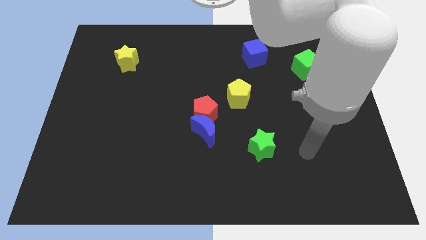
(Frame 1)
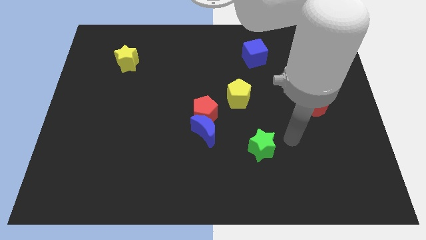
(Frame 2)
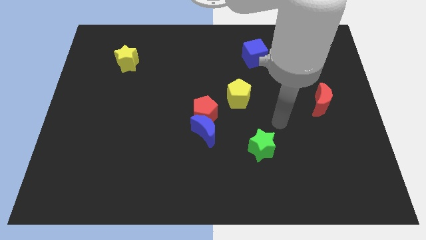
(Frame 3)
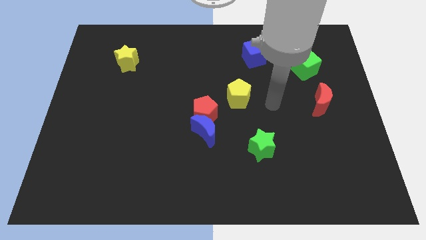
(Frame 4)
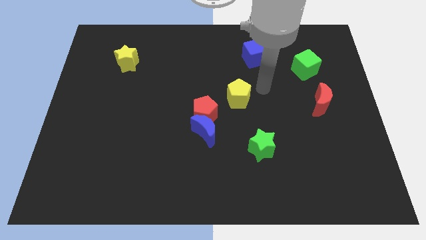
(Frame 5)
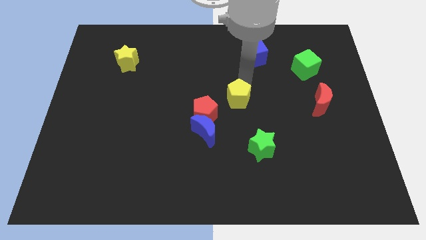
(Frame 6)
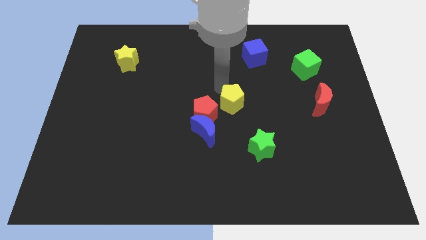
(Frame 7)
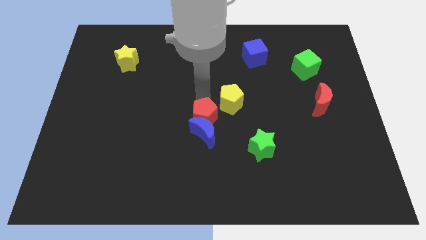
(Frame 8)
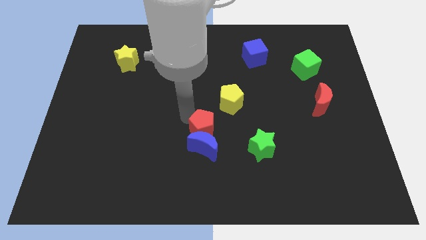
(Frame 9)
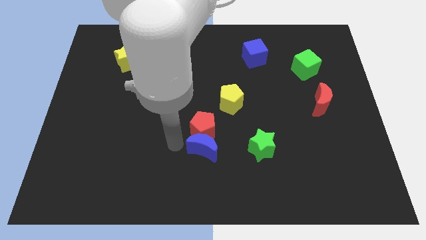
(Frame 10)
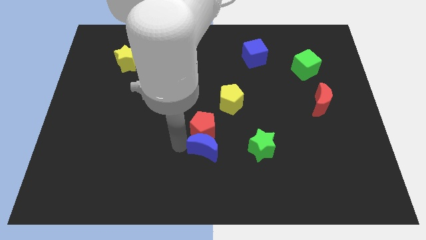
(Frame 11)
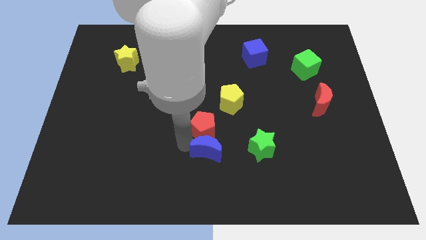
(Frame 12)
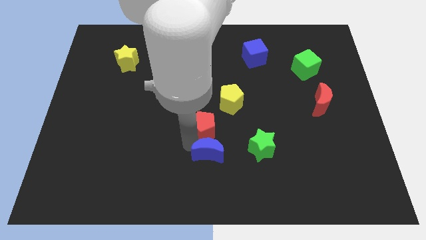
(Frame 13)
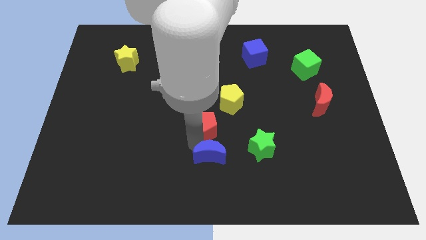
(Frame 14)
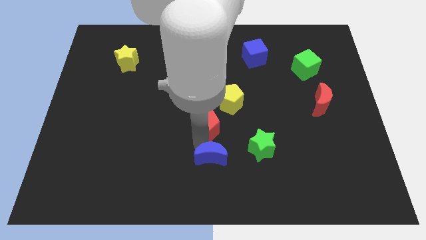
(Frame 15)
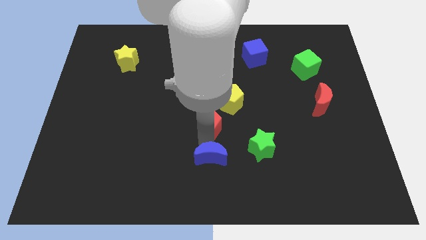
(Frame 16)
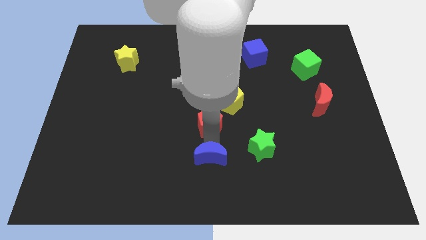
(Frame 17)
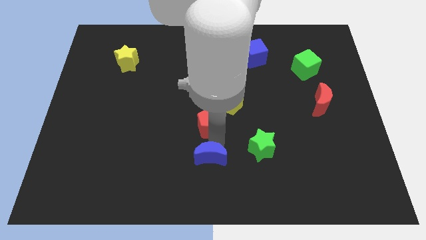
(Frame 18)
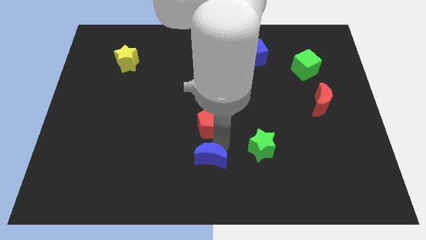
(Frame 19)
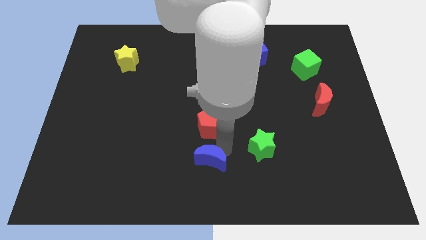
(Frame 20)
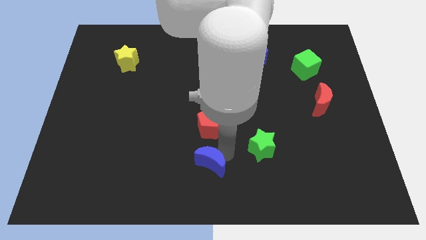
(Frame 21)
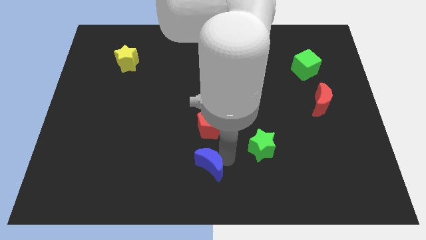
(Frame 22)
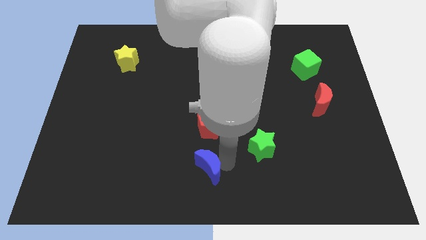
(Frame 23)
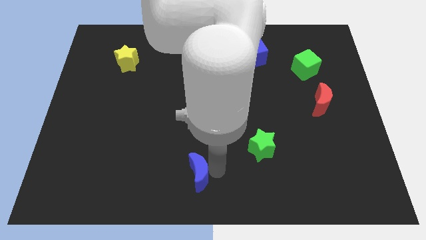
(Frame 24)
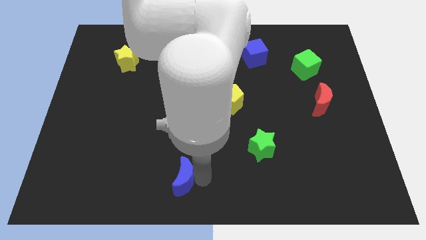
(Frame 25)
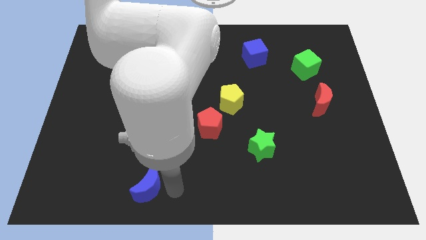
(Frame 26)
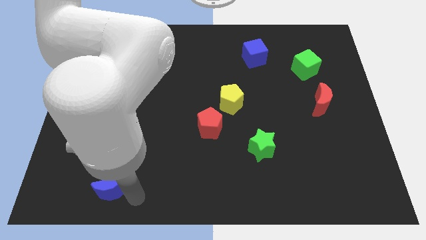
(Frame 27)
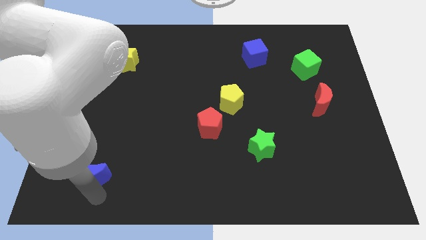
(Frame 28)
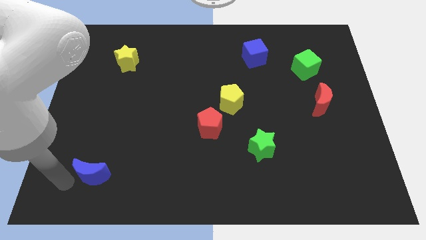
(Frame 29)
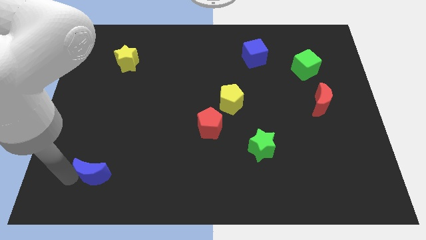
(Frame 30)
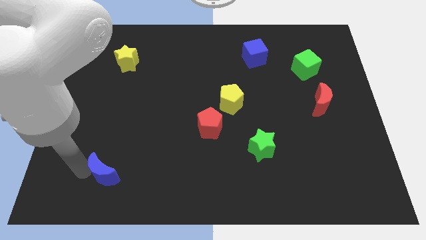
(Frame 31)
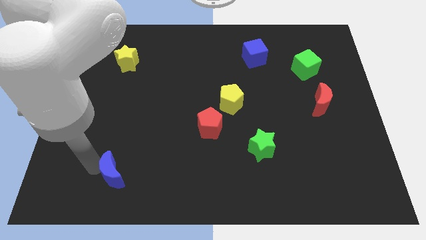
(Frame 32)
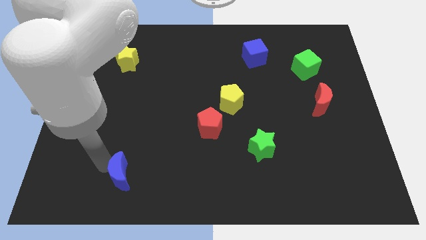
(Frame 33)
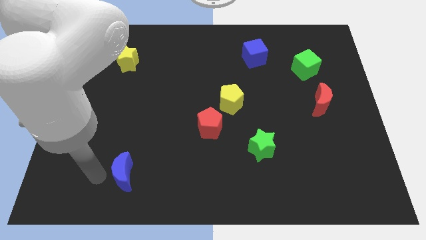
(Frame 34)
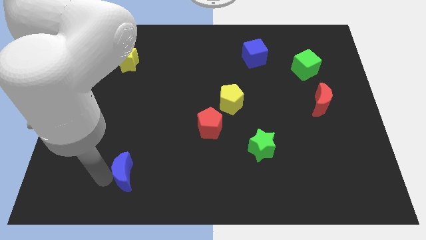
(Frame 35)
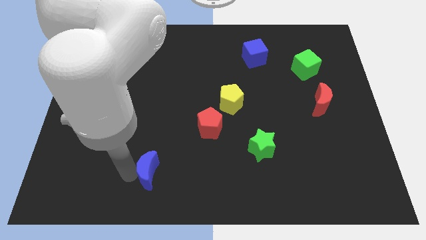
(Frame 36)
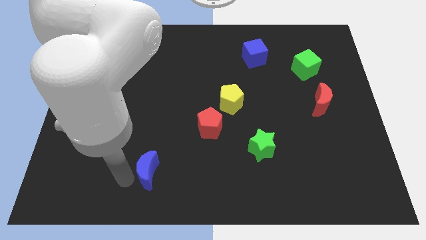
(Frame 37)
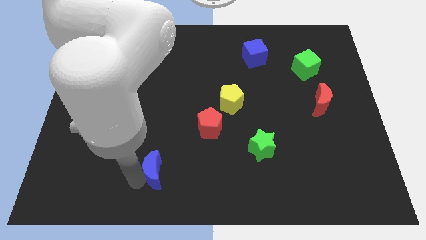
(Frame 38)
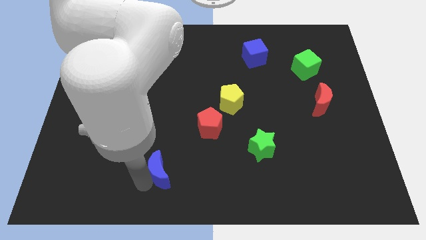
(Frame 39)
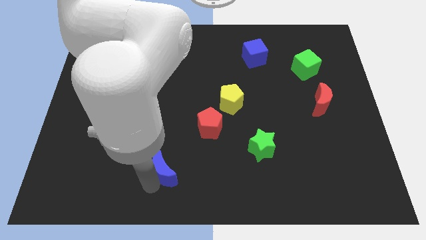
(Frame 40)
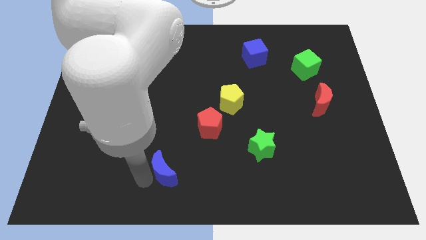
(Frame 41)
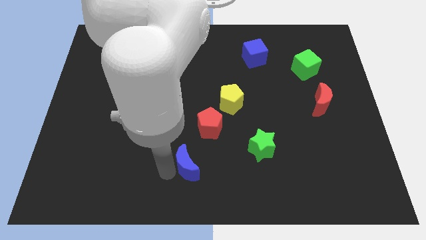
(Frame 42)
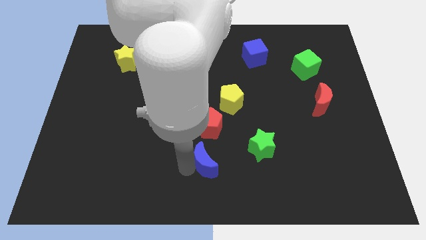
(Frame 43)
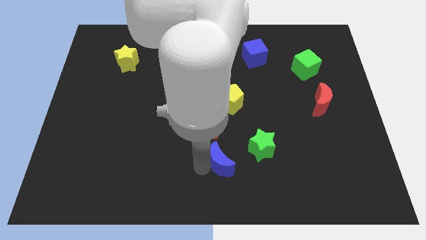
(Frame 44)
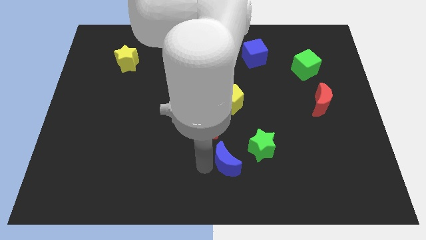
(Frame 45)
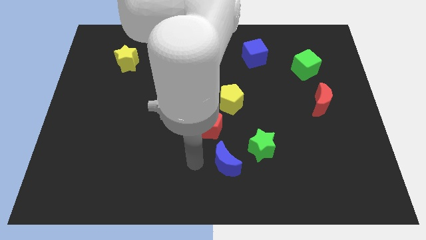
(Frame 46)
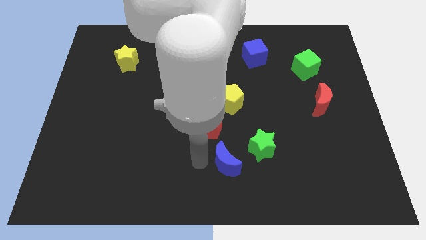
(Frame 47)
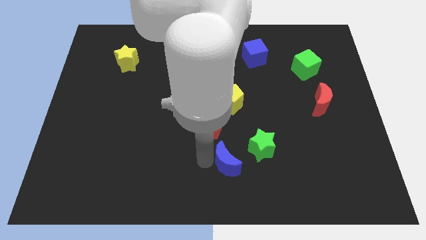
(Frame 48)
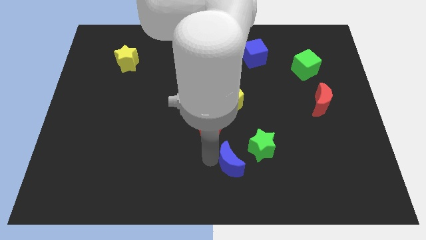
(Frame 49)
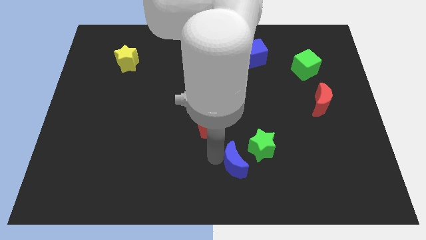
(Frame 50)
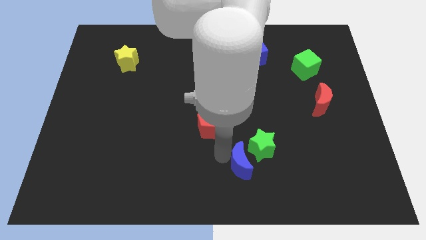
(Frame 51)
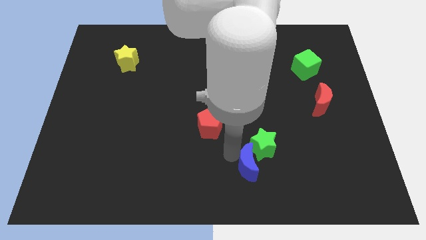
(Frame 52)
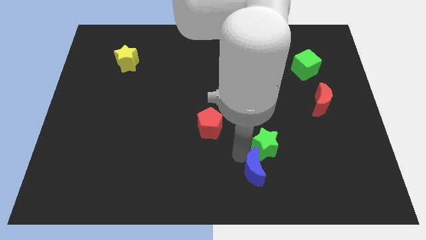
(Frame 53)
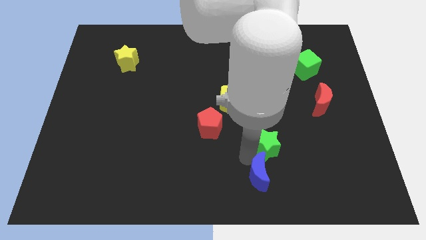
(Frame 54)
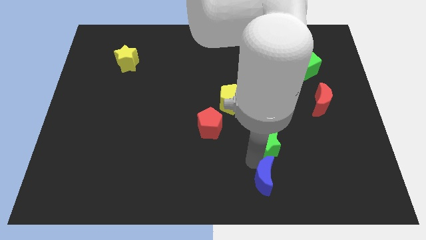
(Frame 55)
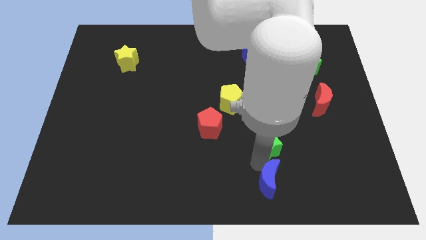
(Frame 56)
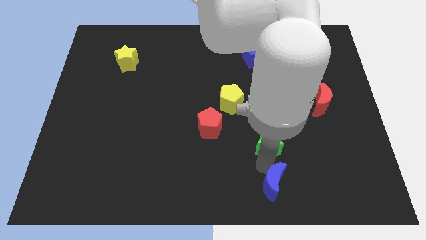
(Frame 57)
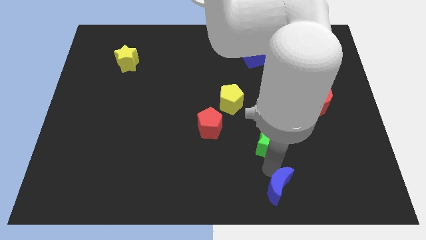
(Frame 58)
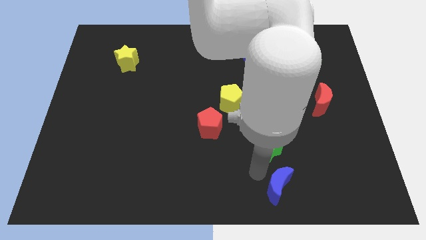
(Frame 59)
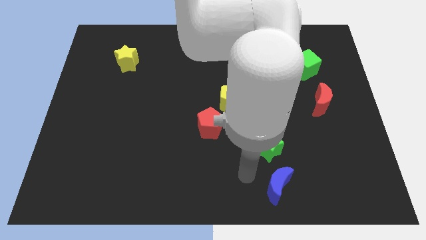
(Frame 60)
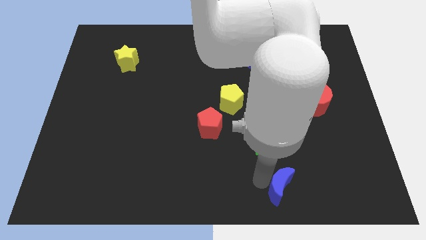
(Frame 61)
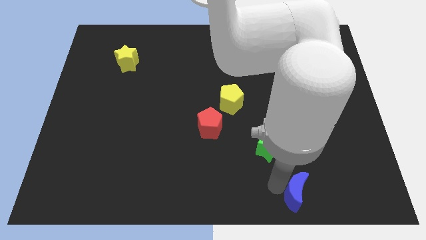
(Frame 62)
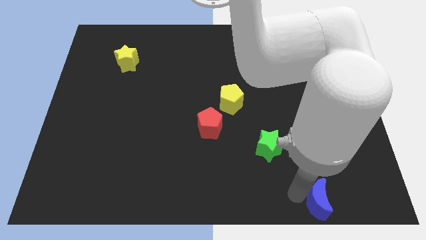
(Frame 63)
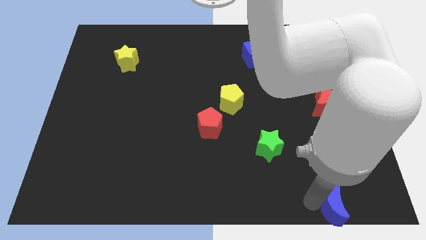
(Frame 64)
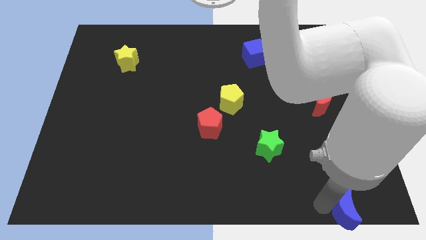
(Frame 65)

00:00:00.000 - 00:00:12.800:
move the blue moon to the bottom right of the board

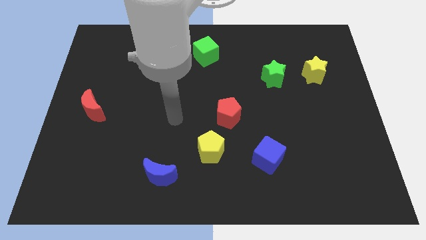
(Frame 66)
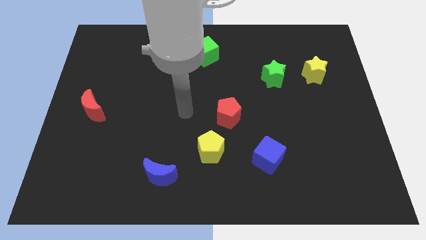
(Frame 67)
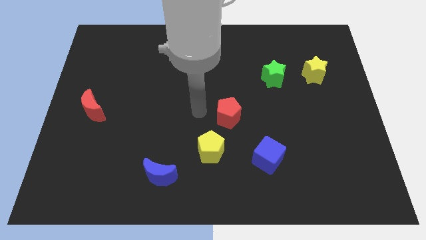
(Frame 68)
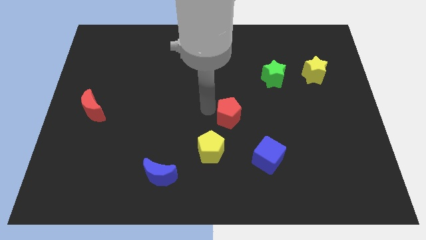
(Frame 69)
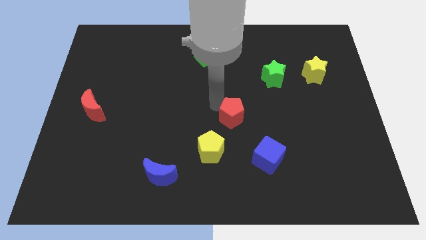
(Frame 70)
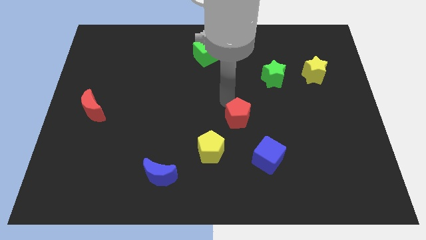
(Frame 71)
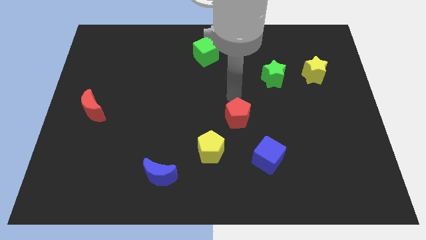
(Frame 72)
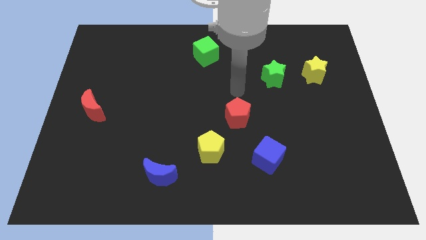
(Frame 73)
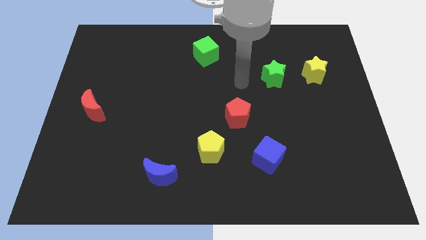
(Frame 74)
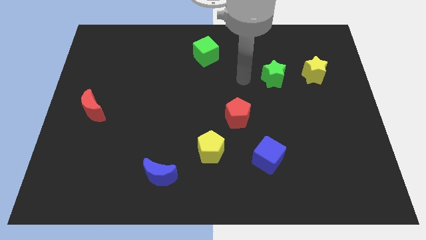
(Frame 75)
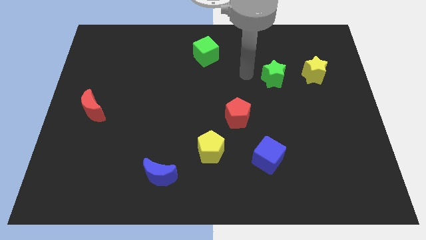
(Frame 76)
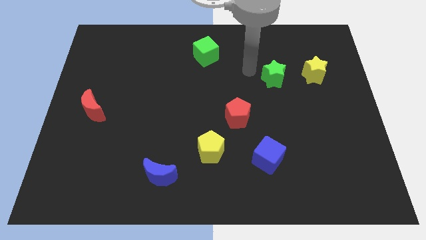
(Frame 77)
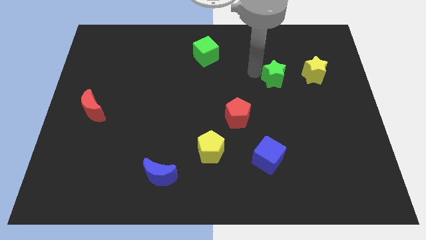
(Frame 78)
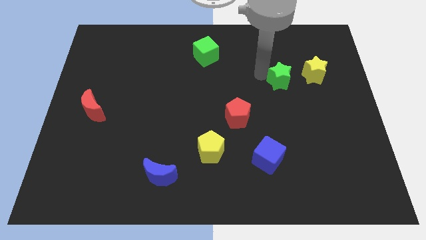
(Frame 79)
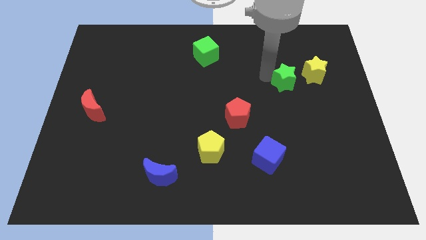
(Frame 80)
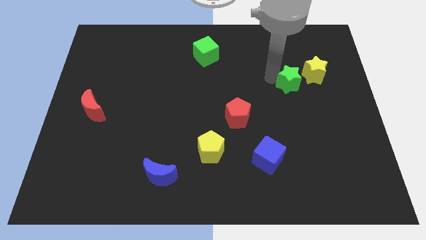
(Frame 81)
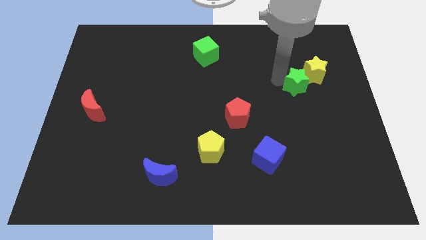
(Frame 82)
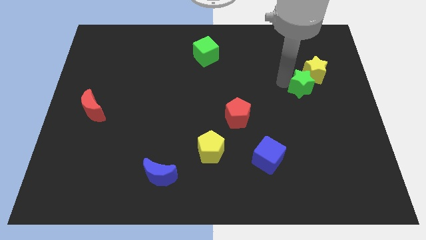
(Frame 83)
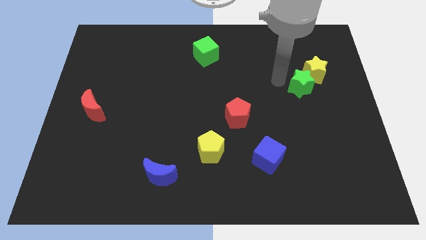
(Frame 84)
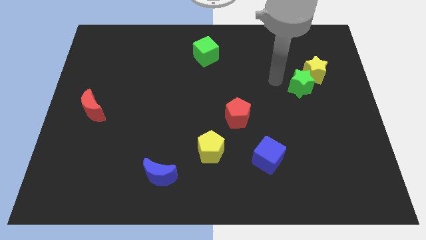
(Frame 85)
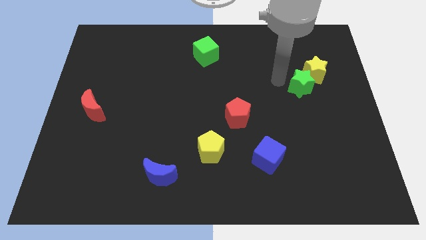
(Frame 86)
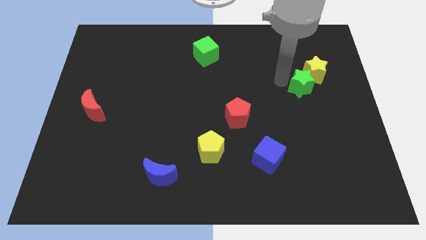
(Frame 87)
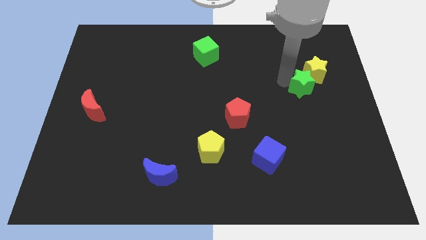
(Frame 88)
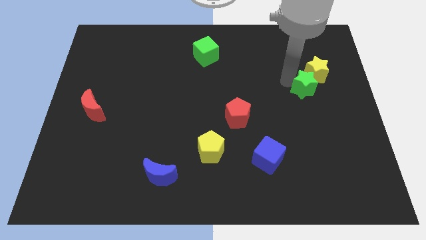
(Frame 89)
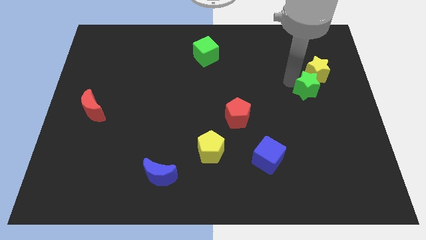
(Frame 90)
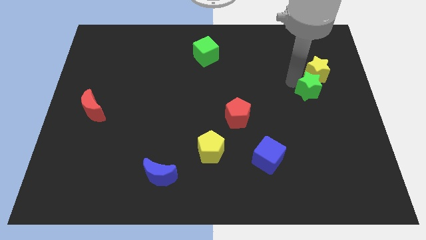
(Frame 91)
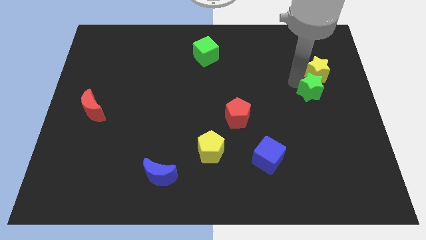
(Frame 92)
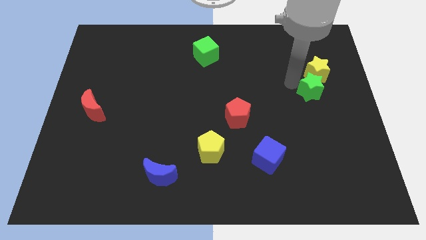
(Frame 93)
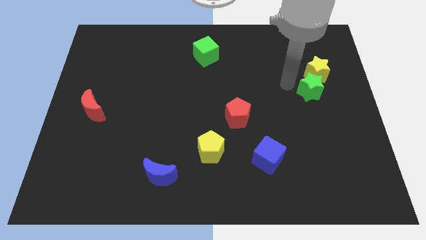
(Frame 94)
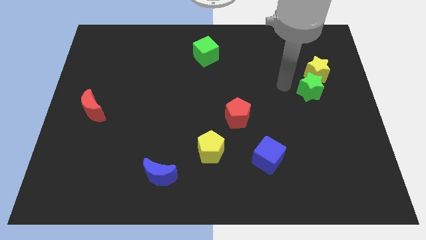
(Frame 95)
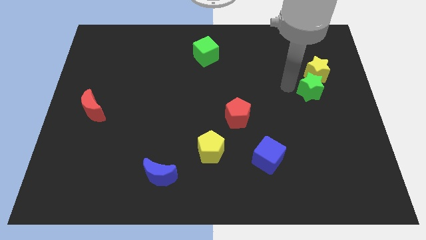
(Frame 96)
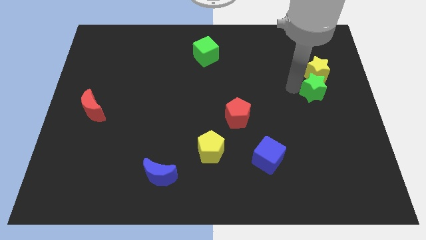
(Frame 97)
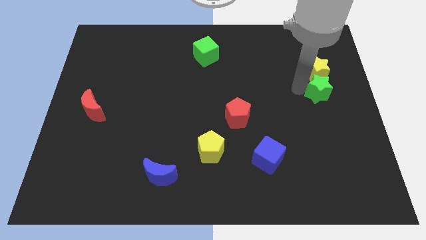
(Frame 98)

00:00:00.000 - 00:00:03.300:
move the green star to the right side
